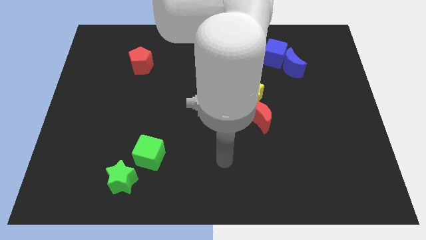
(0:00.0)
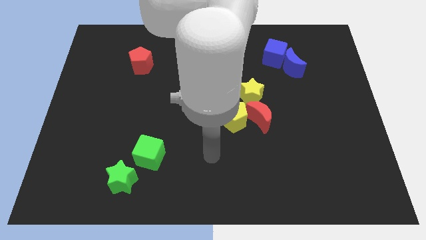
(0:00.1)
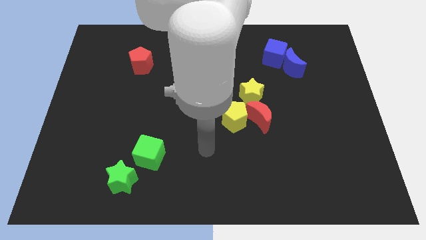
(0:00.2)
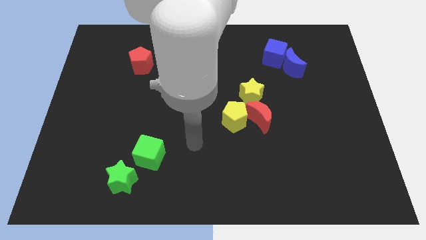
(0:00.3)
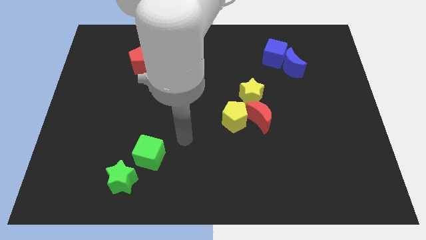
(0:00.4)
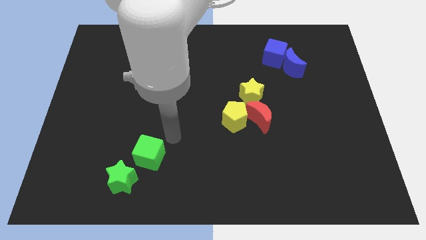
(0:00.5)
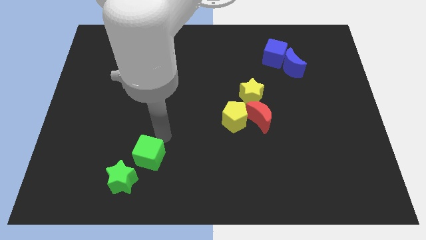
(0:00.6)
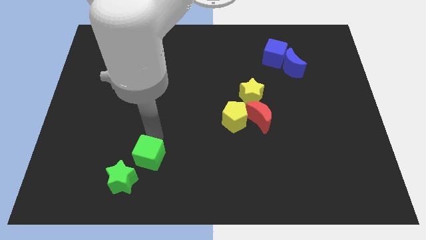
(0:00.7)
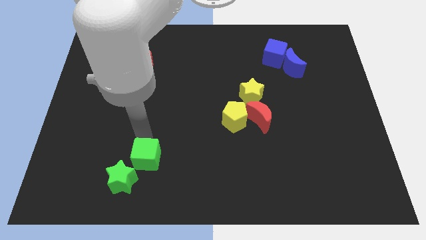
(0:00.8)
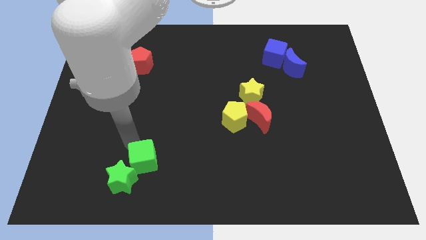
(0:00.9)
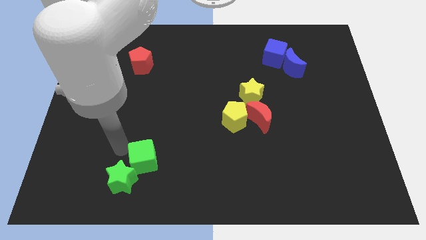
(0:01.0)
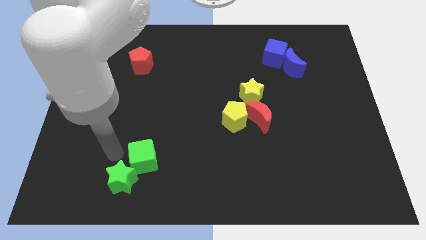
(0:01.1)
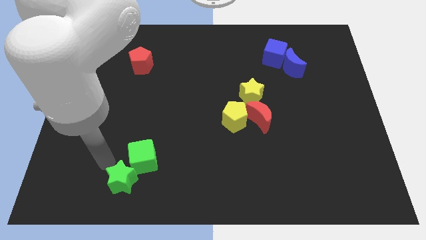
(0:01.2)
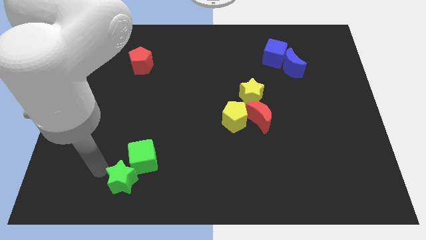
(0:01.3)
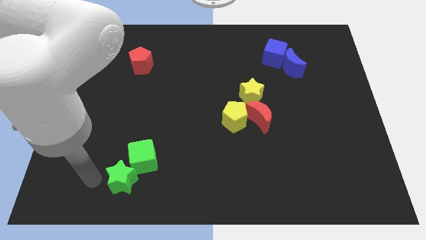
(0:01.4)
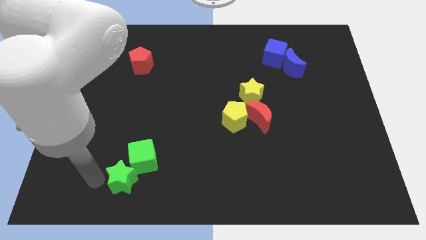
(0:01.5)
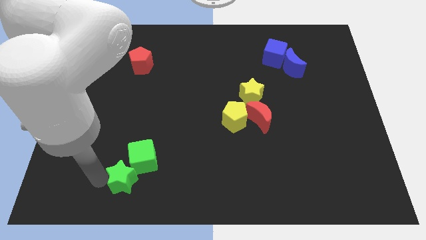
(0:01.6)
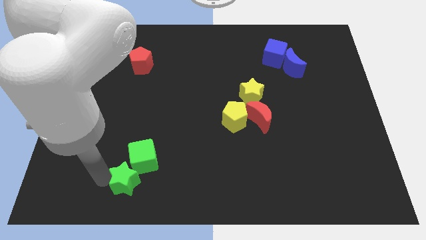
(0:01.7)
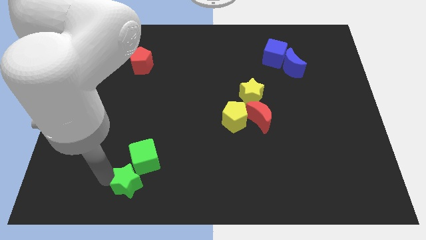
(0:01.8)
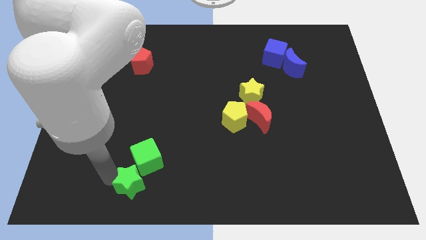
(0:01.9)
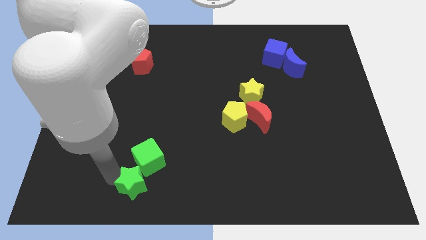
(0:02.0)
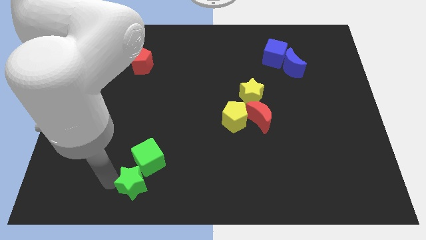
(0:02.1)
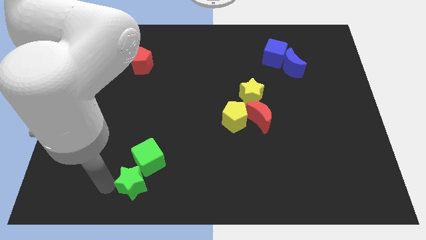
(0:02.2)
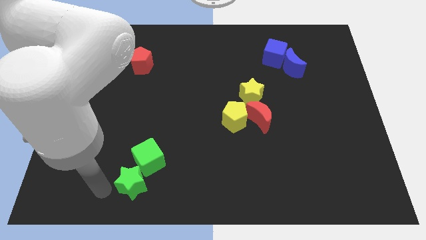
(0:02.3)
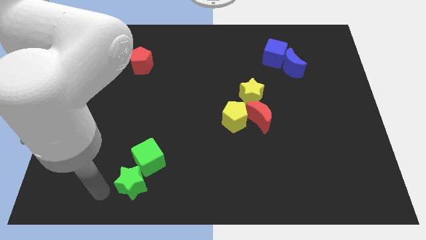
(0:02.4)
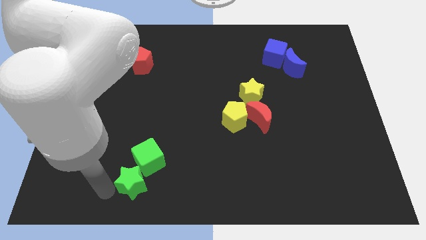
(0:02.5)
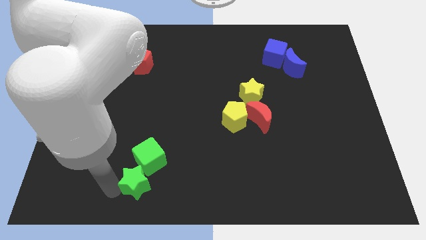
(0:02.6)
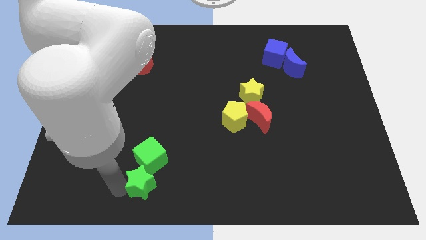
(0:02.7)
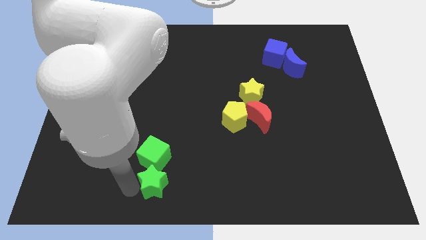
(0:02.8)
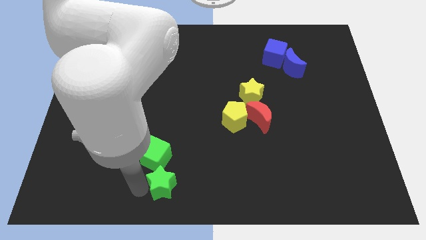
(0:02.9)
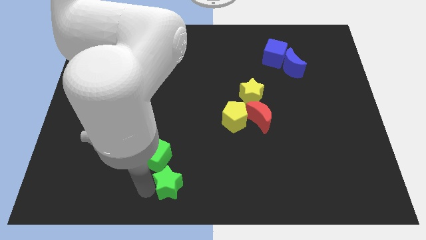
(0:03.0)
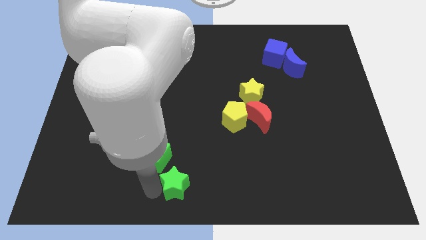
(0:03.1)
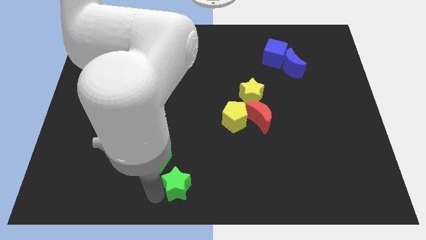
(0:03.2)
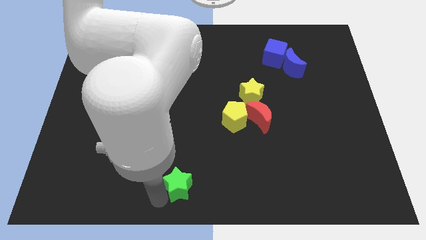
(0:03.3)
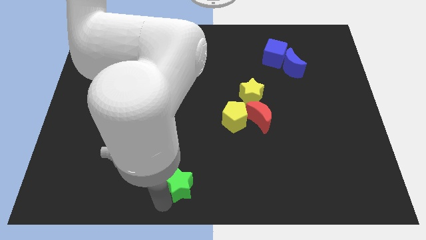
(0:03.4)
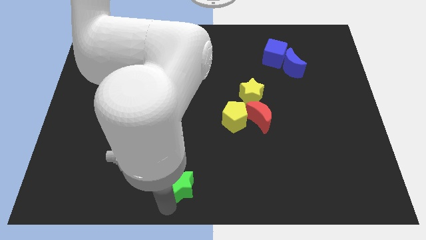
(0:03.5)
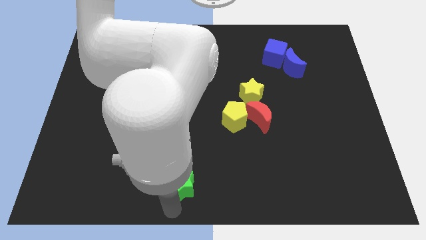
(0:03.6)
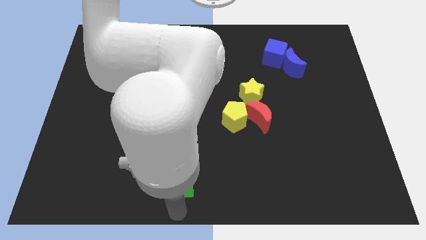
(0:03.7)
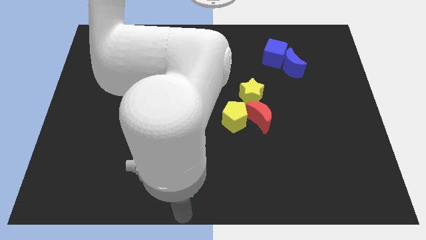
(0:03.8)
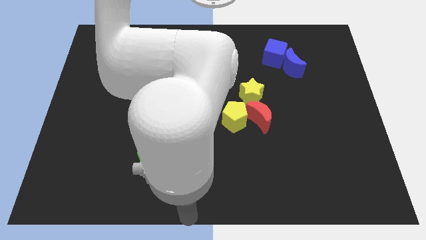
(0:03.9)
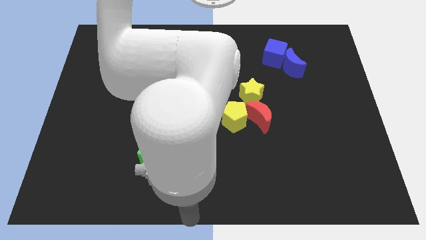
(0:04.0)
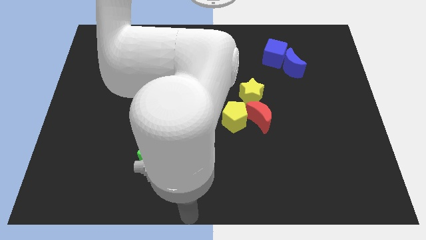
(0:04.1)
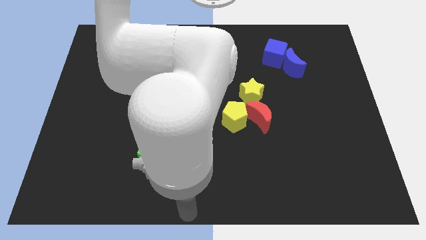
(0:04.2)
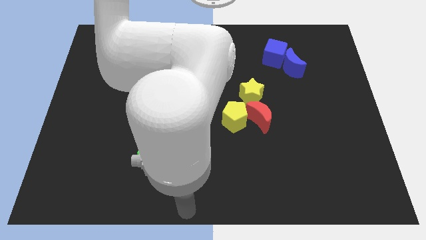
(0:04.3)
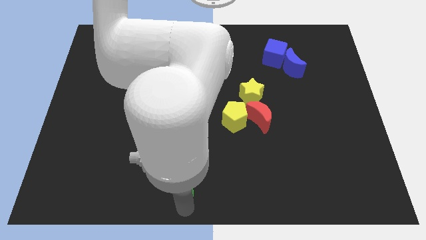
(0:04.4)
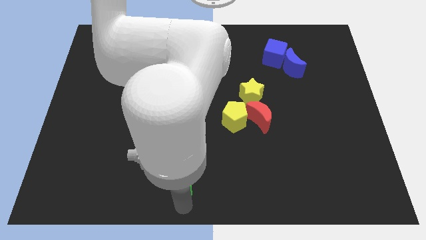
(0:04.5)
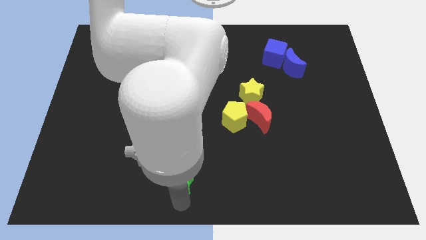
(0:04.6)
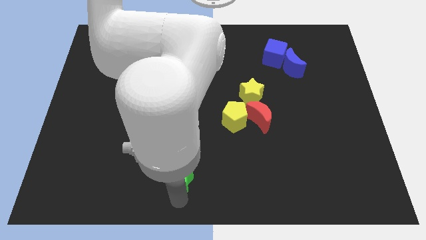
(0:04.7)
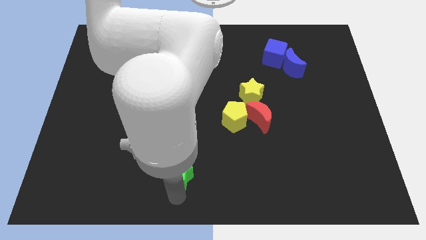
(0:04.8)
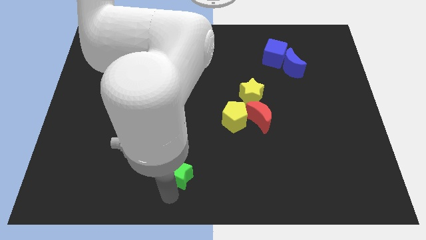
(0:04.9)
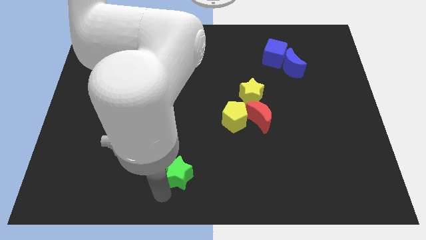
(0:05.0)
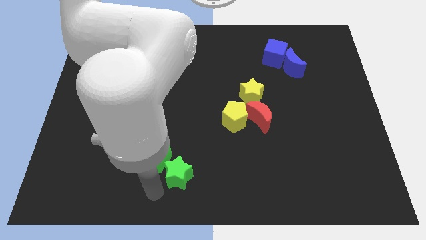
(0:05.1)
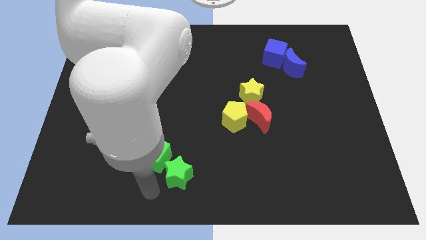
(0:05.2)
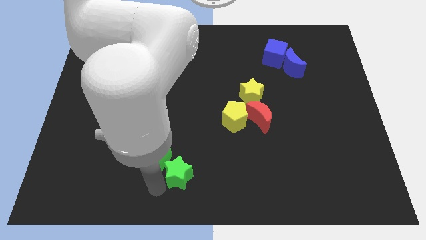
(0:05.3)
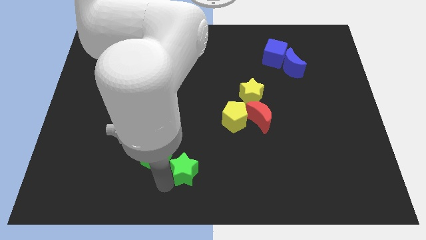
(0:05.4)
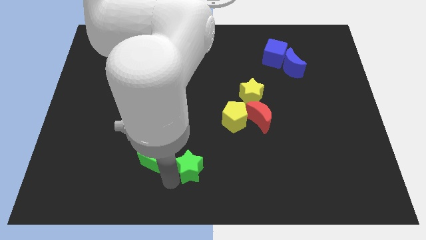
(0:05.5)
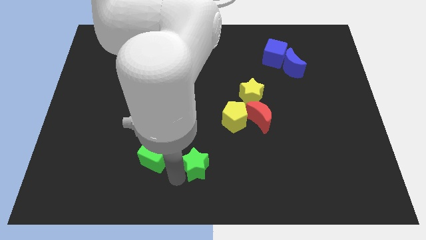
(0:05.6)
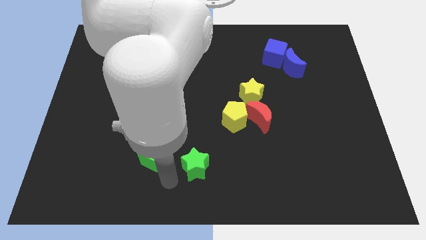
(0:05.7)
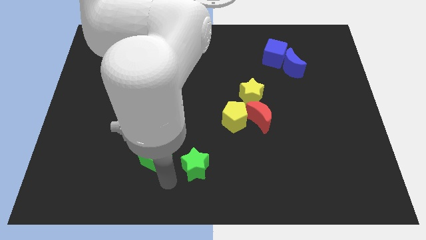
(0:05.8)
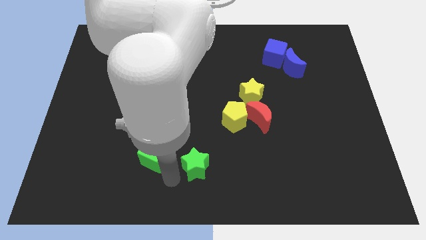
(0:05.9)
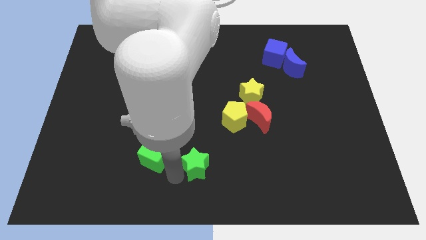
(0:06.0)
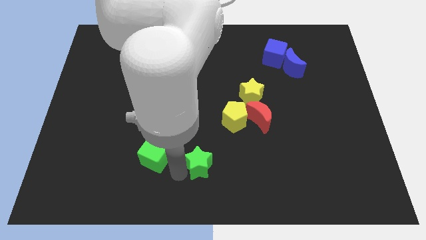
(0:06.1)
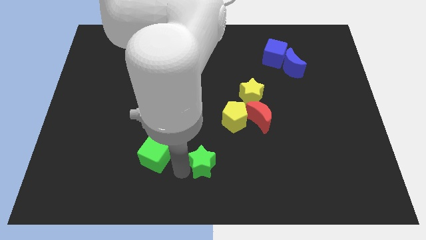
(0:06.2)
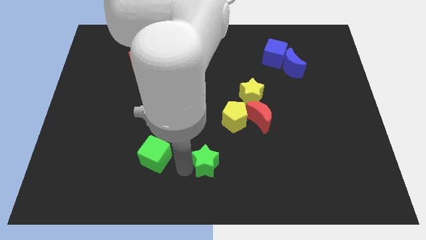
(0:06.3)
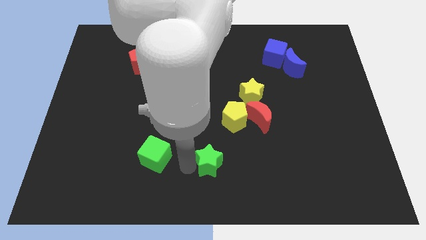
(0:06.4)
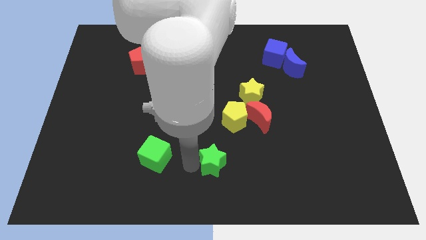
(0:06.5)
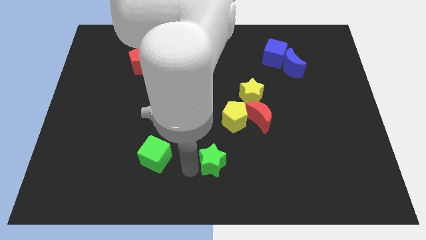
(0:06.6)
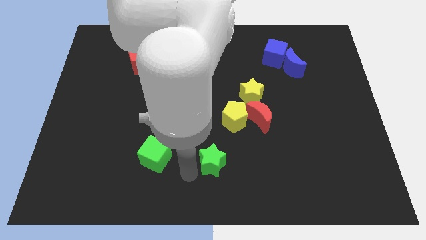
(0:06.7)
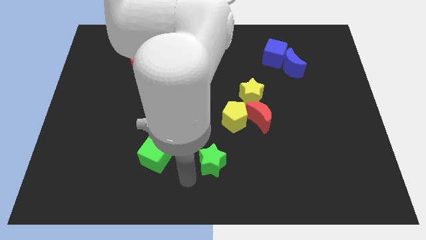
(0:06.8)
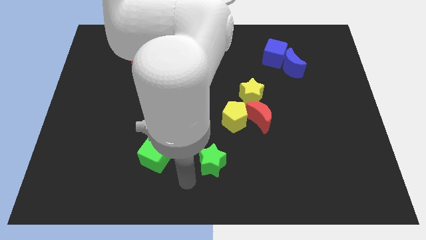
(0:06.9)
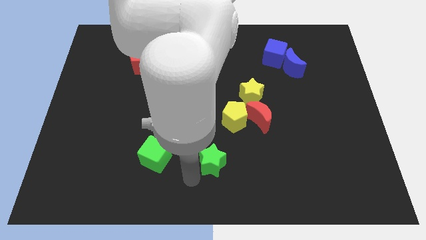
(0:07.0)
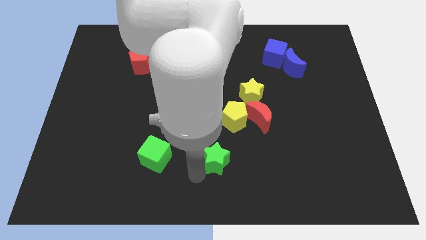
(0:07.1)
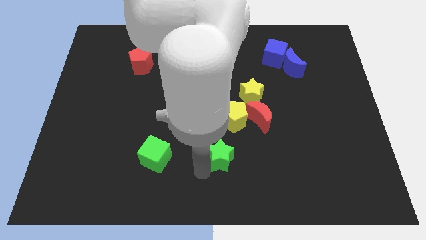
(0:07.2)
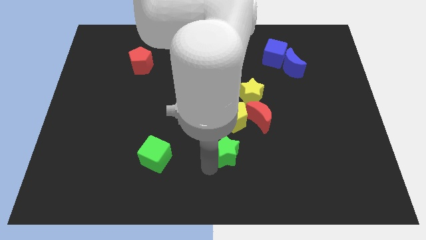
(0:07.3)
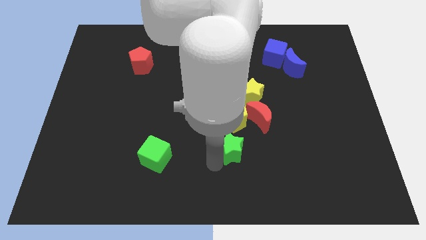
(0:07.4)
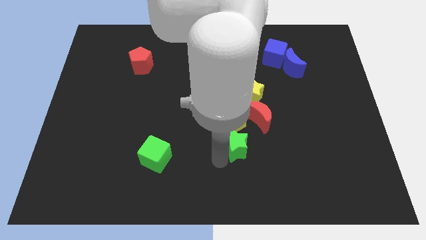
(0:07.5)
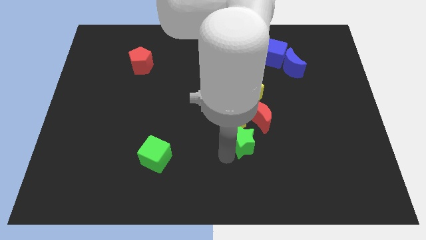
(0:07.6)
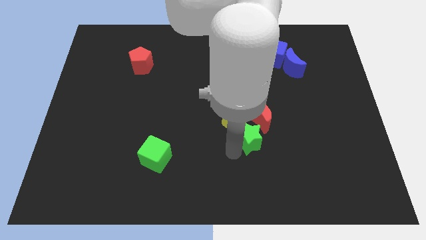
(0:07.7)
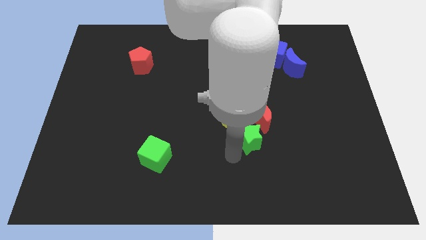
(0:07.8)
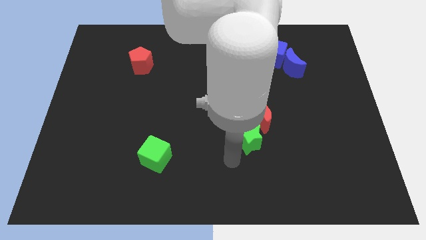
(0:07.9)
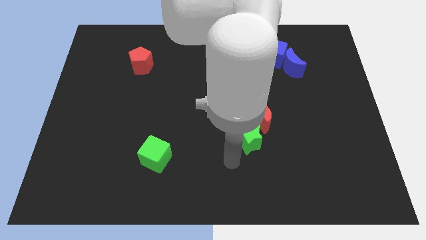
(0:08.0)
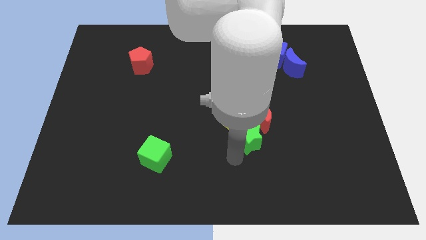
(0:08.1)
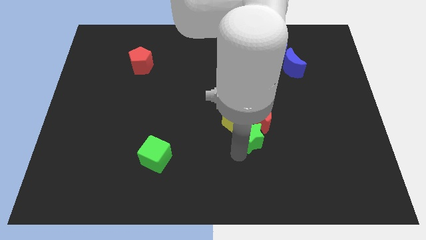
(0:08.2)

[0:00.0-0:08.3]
slide the green star to the red moon
